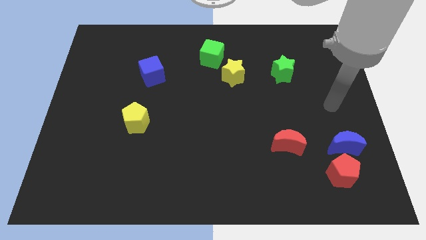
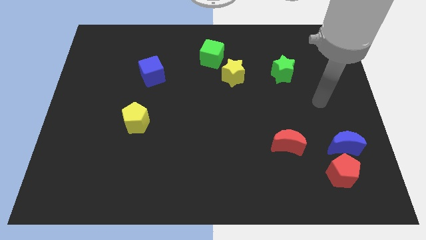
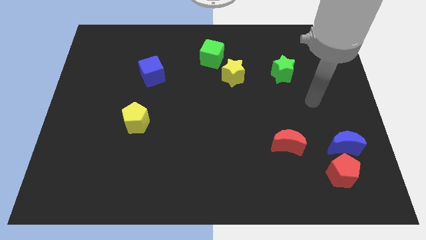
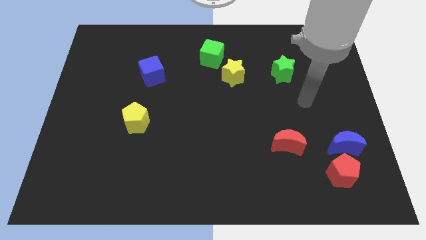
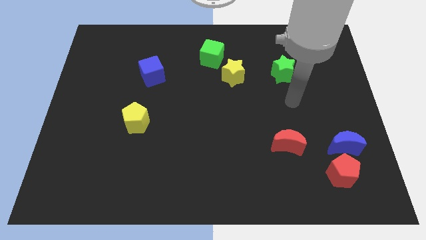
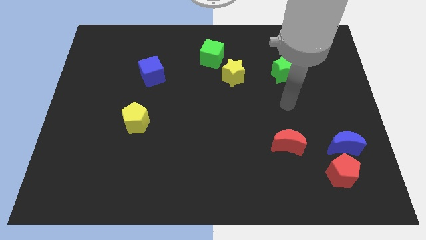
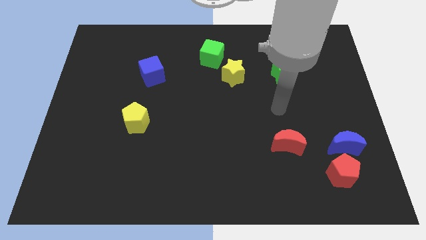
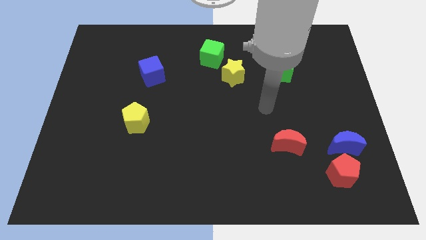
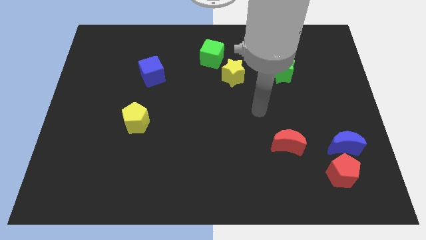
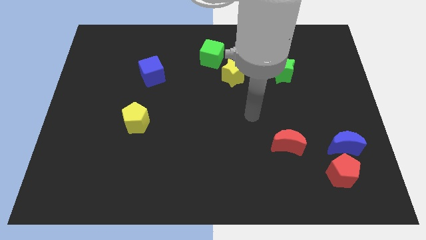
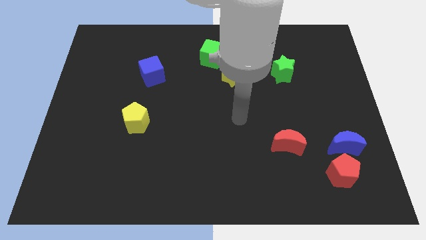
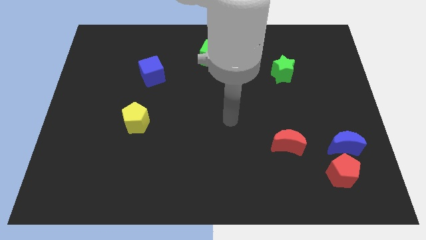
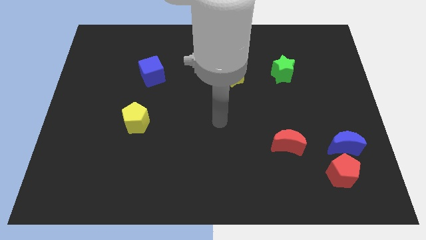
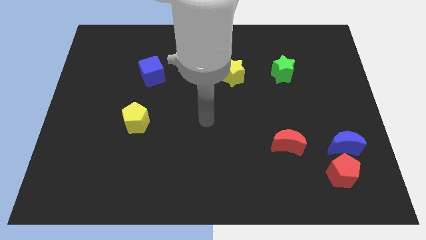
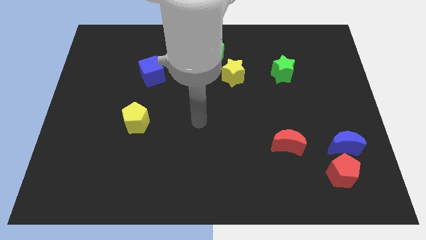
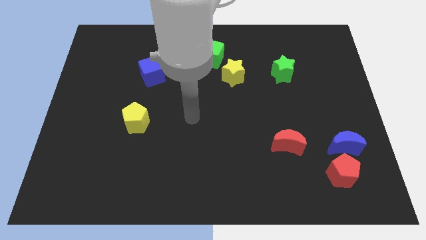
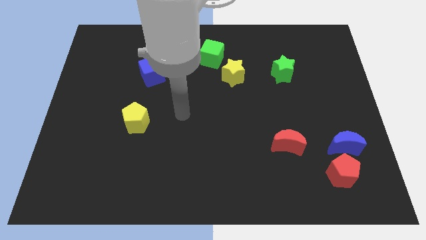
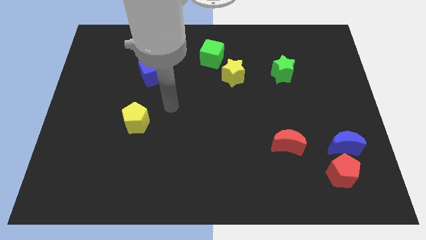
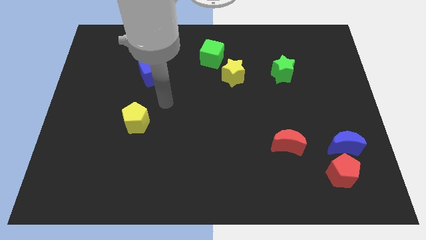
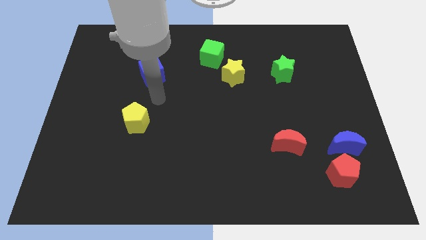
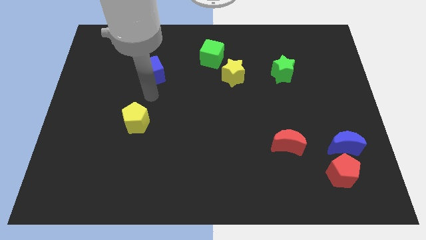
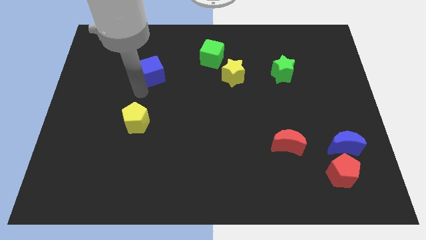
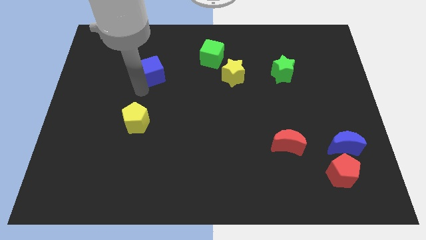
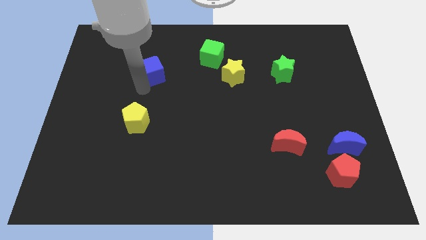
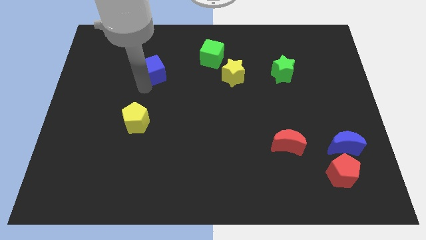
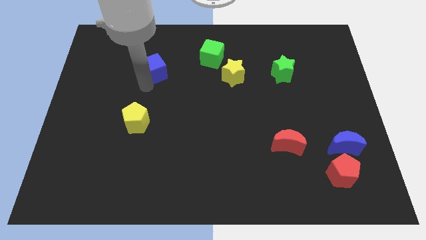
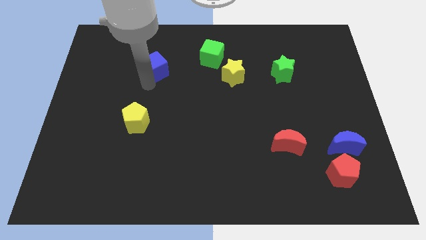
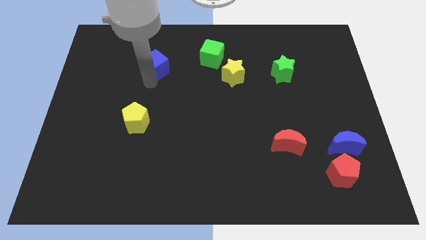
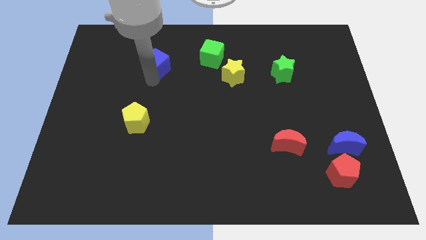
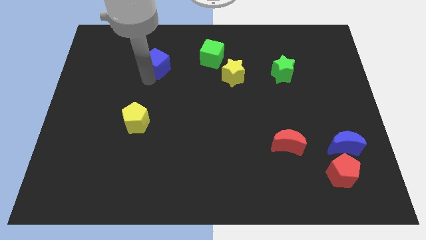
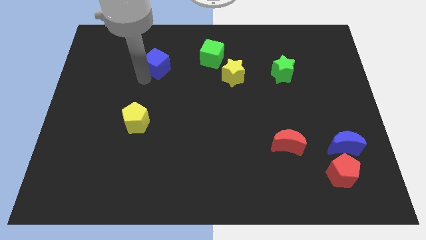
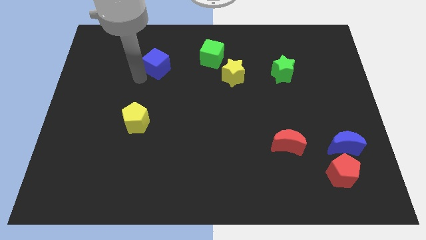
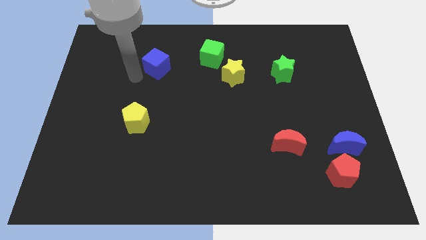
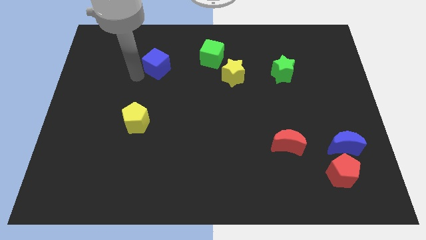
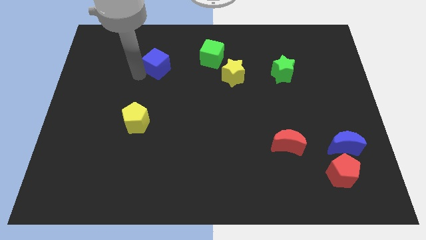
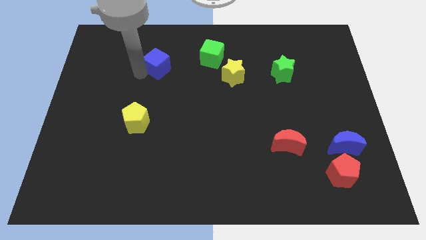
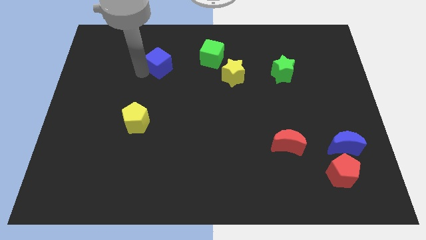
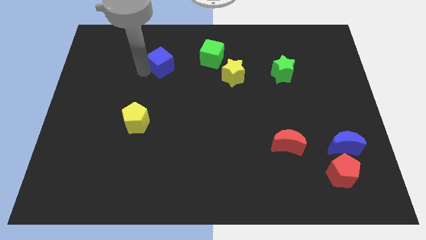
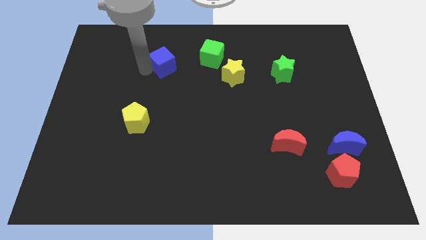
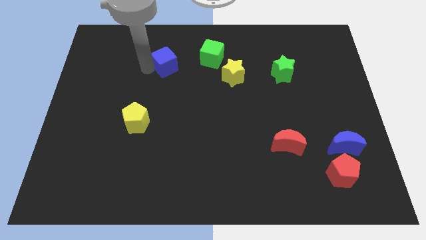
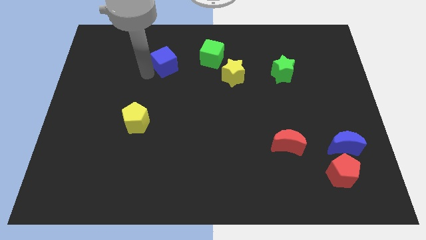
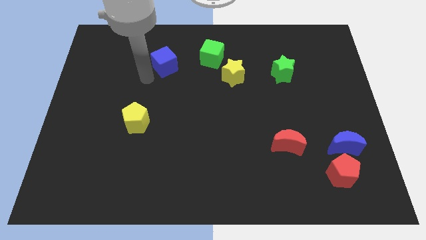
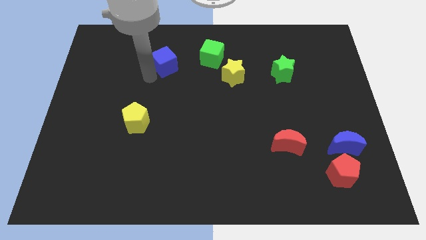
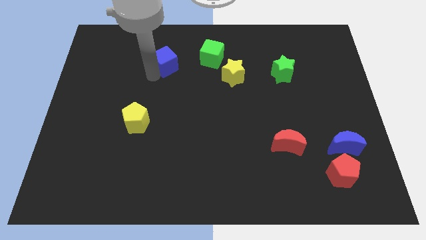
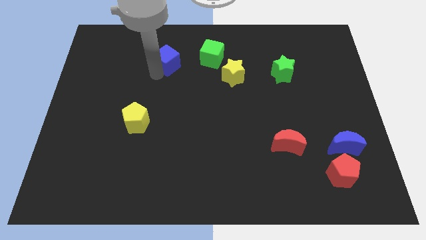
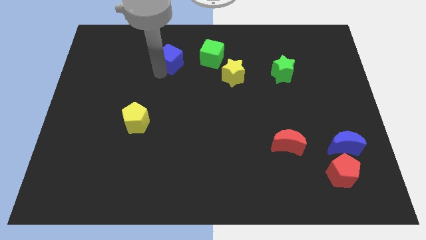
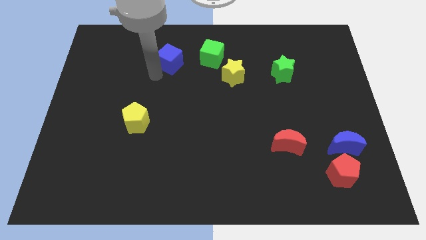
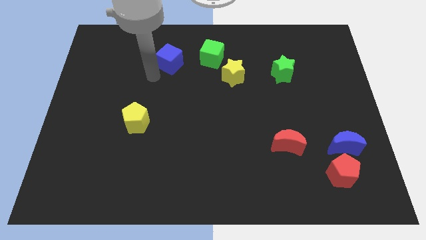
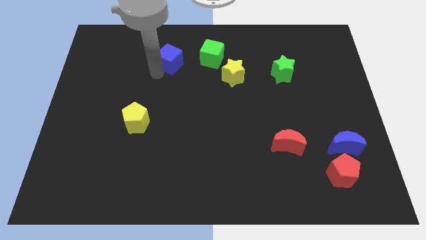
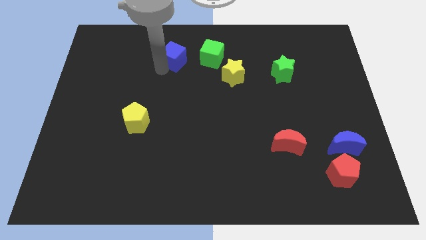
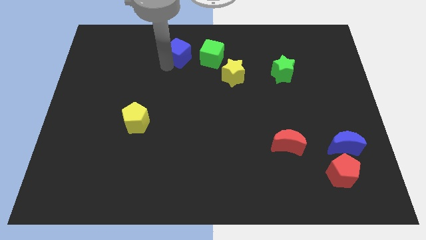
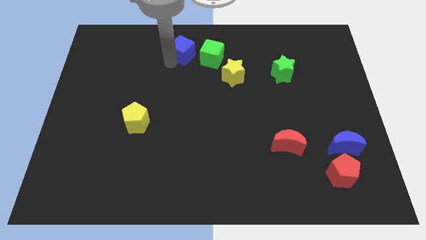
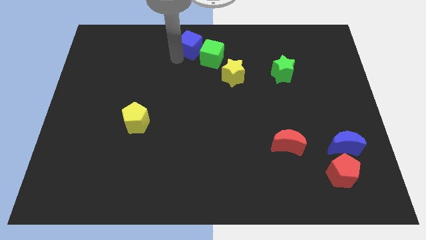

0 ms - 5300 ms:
put the blue cube to the top

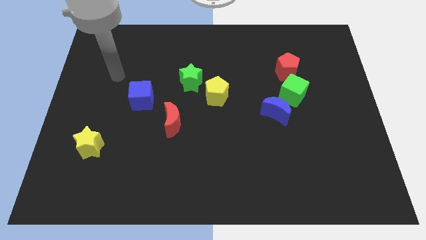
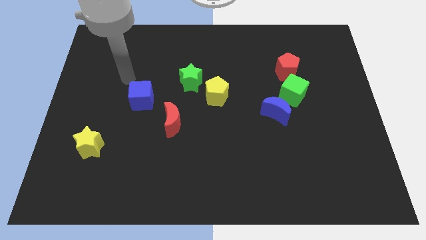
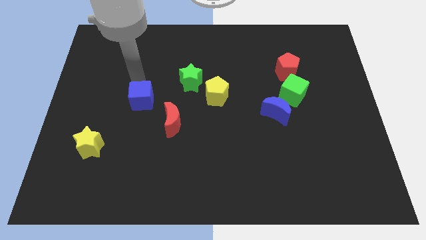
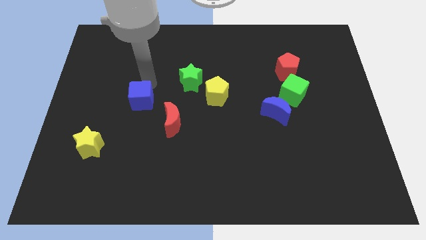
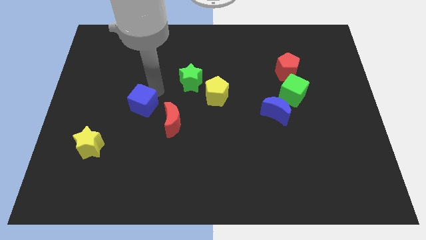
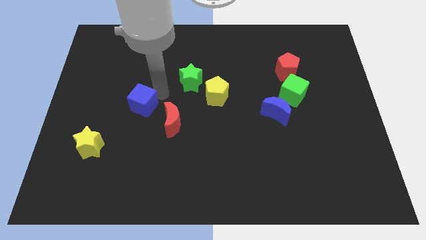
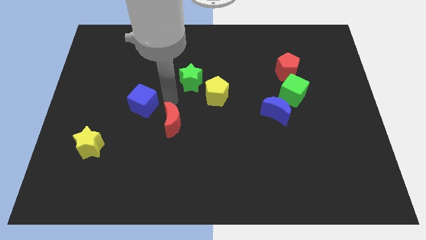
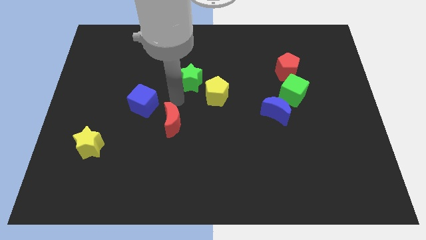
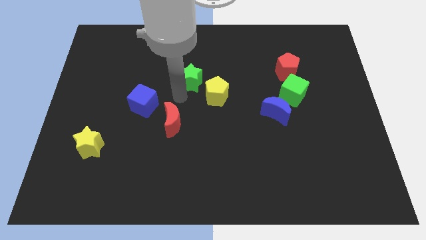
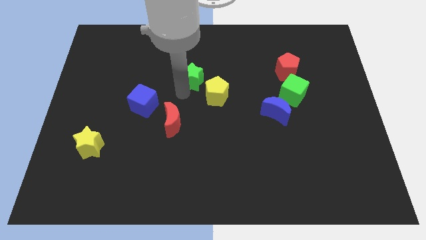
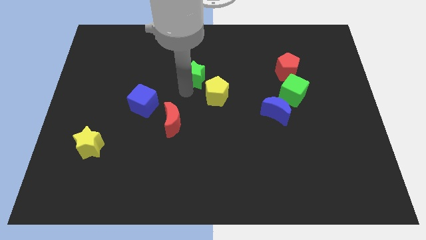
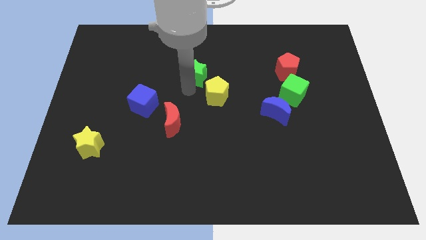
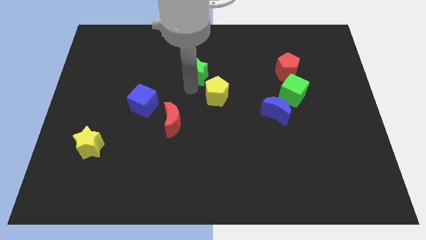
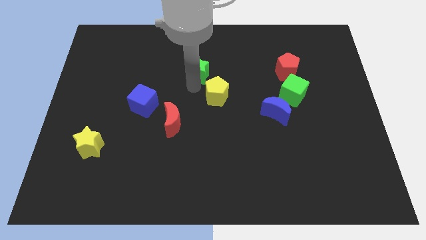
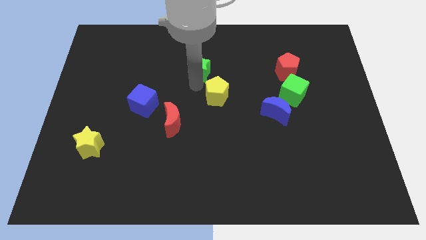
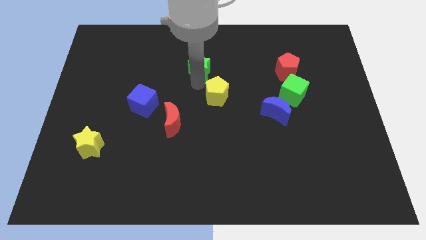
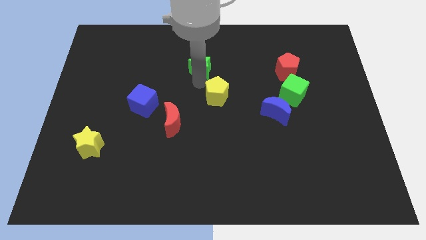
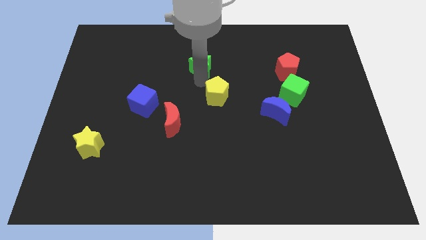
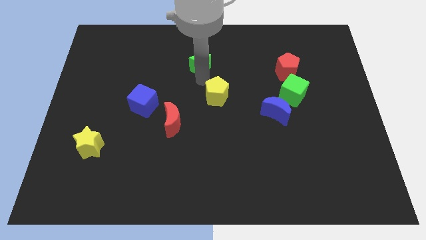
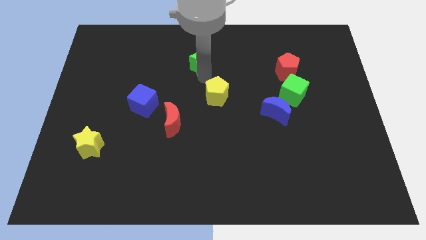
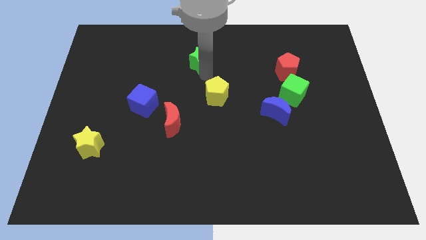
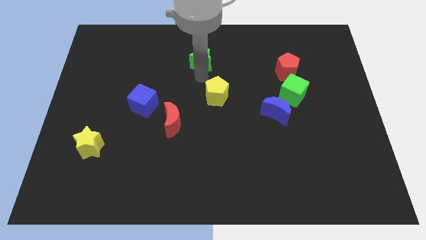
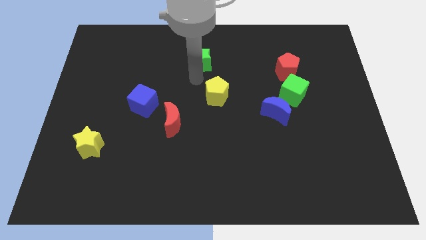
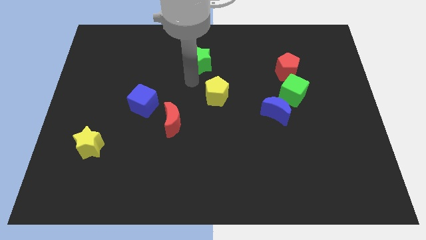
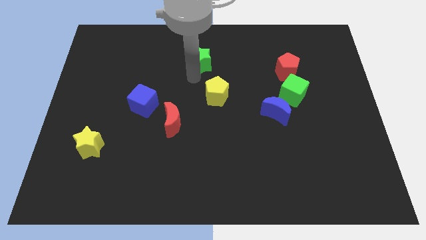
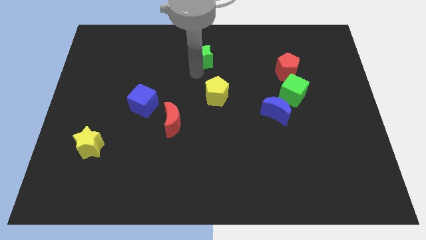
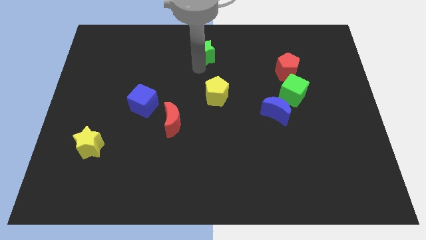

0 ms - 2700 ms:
slide the green star to the top
